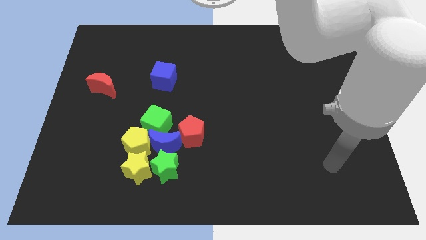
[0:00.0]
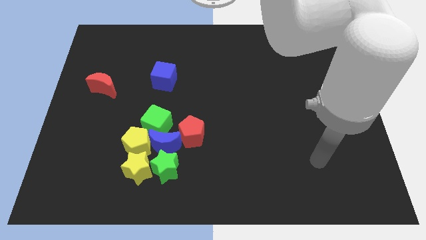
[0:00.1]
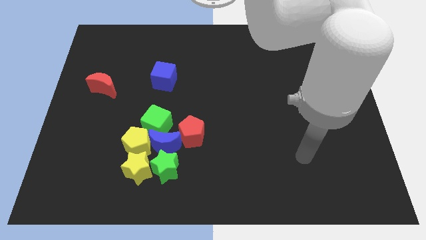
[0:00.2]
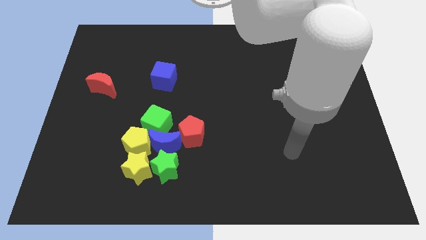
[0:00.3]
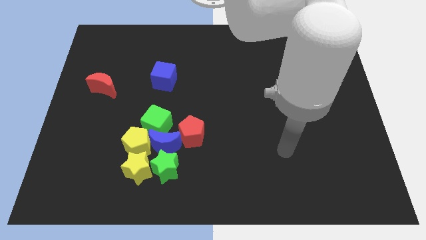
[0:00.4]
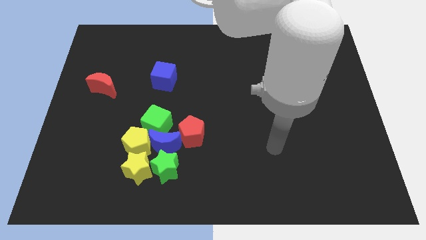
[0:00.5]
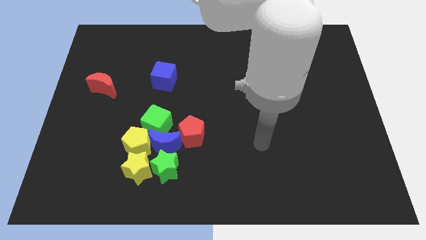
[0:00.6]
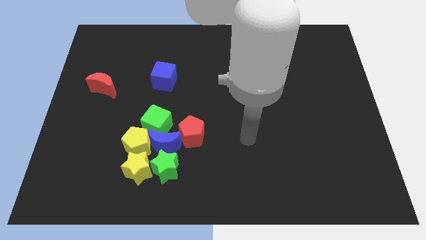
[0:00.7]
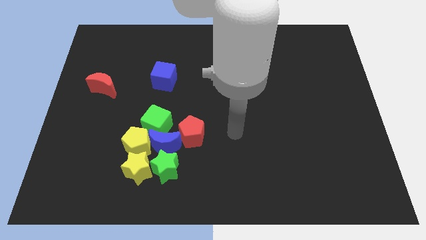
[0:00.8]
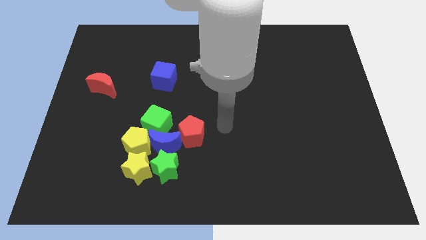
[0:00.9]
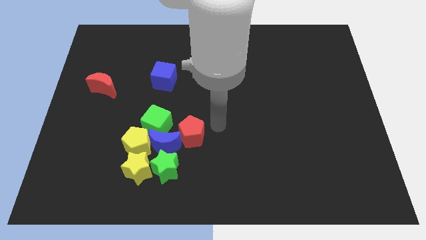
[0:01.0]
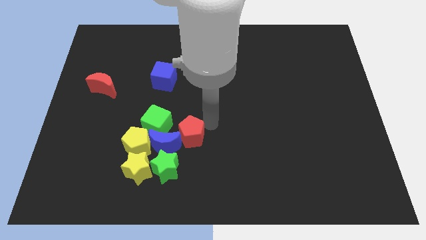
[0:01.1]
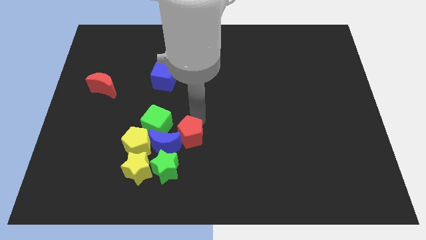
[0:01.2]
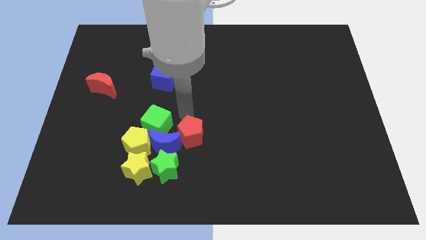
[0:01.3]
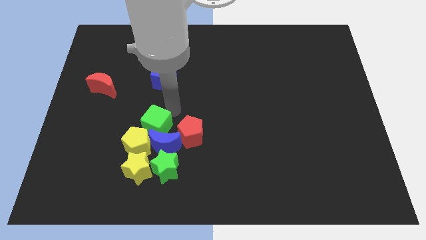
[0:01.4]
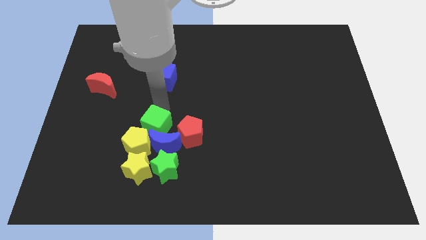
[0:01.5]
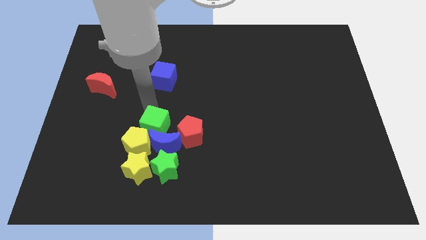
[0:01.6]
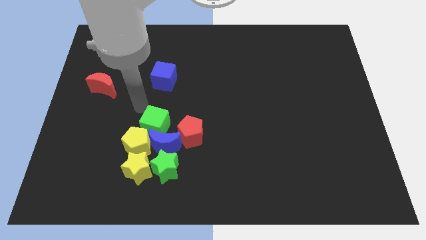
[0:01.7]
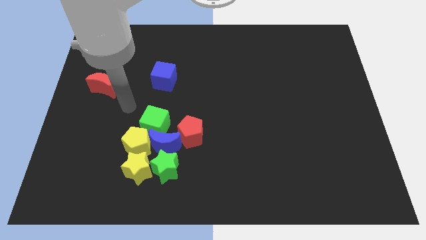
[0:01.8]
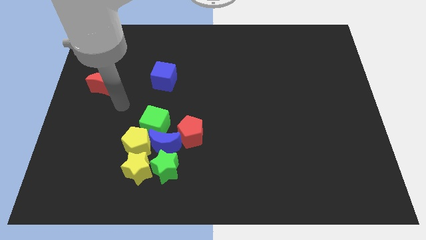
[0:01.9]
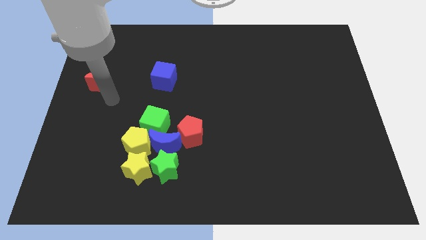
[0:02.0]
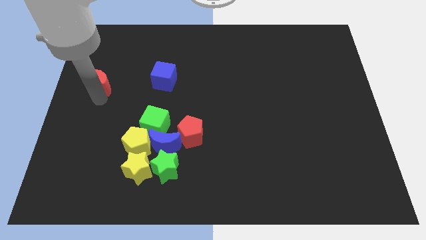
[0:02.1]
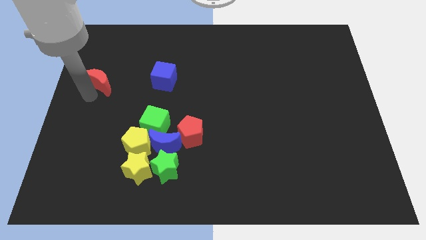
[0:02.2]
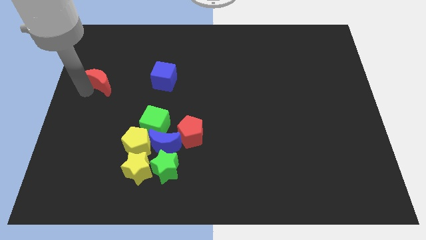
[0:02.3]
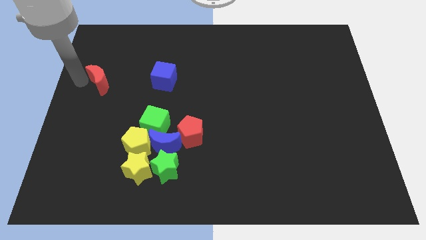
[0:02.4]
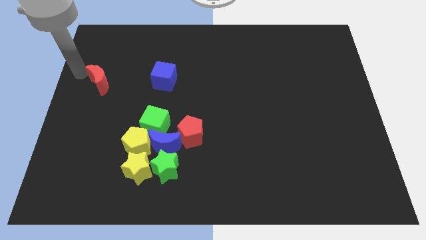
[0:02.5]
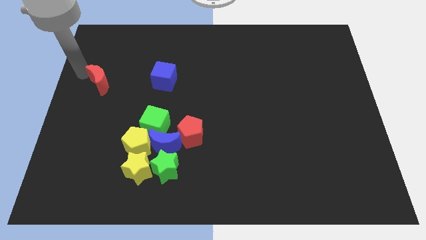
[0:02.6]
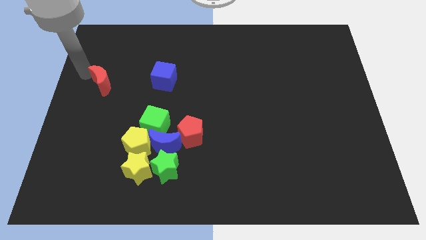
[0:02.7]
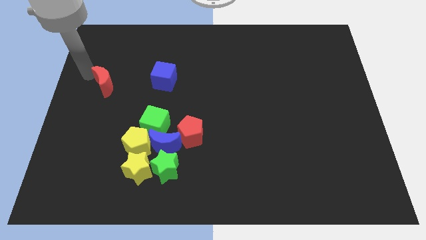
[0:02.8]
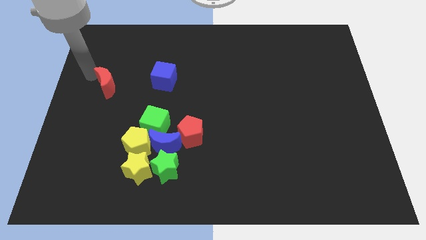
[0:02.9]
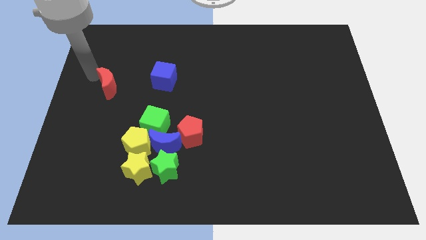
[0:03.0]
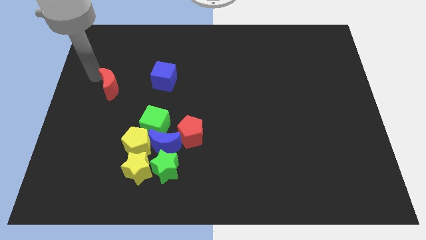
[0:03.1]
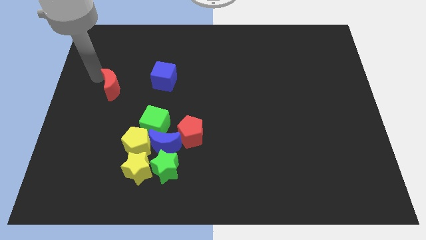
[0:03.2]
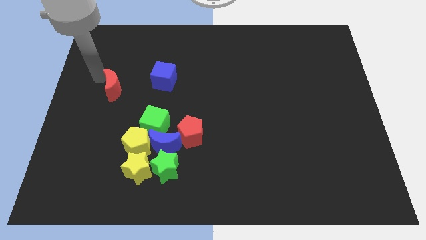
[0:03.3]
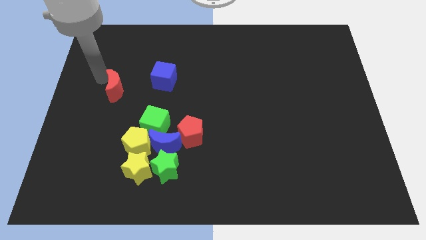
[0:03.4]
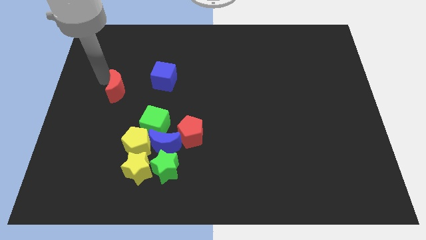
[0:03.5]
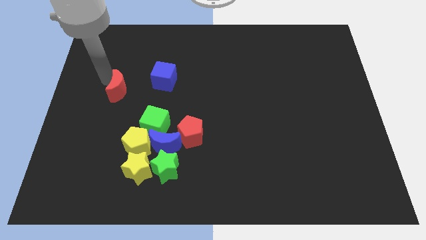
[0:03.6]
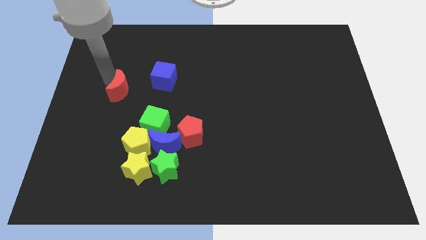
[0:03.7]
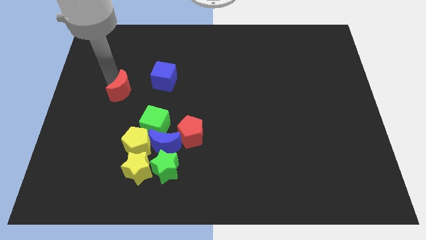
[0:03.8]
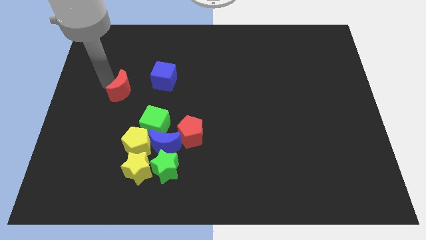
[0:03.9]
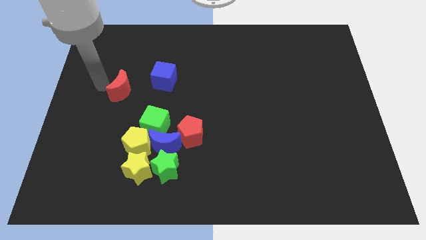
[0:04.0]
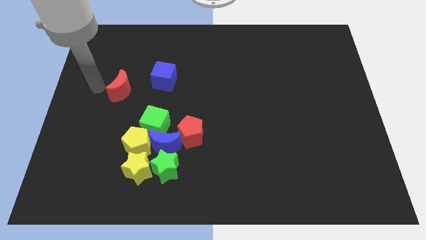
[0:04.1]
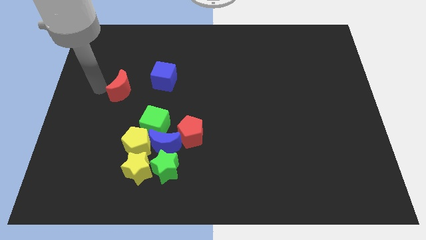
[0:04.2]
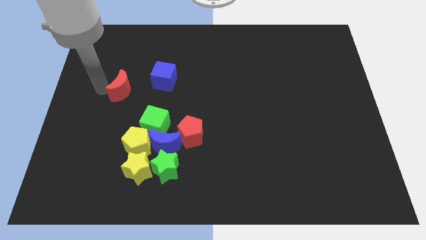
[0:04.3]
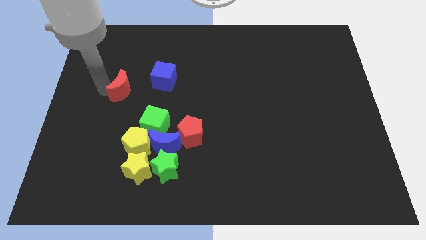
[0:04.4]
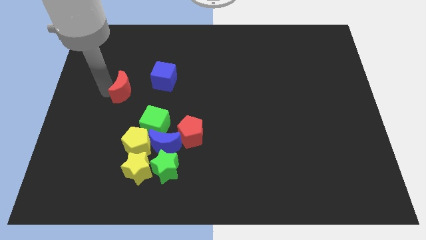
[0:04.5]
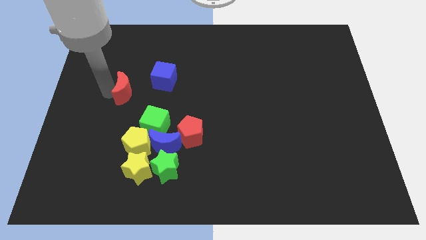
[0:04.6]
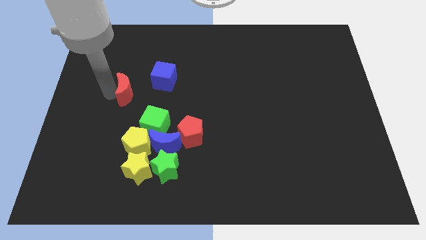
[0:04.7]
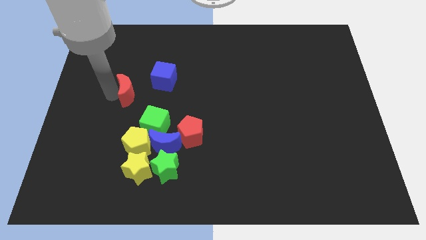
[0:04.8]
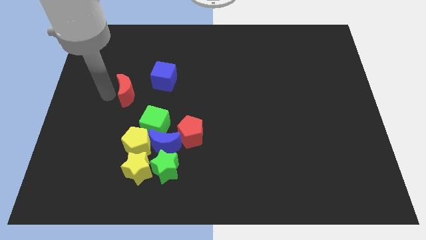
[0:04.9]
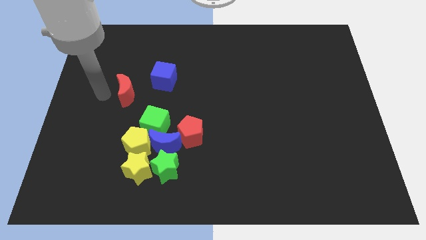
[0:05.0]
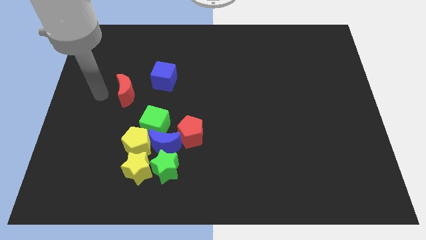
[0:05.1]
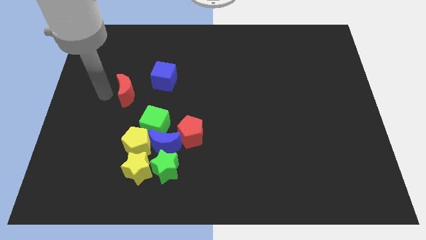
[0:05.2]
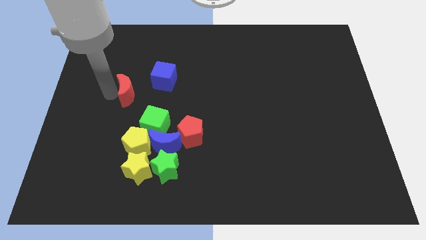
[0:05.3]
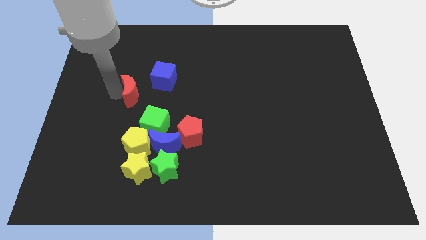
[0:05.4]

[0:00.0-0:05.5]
push the red moon a little bit right

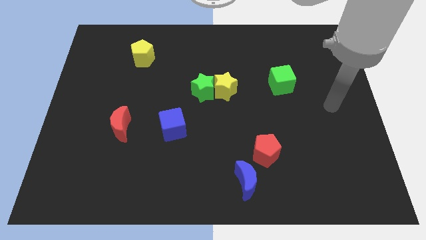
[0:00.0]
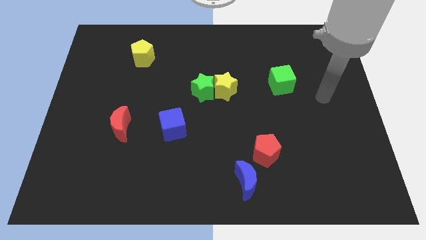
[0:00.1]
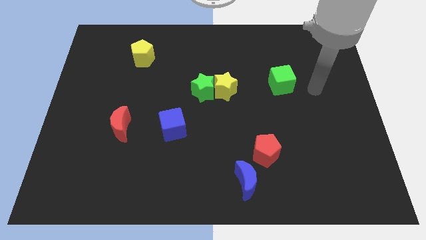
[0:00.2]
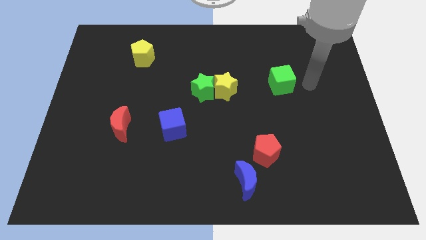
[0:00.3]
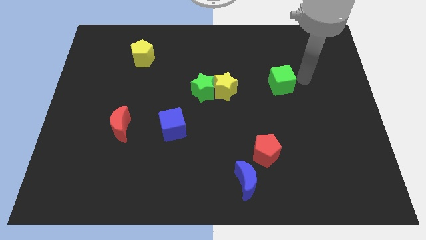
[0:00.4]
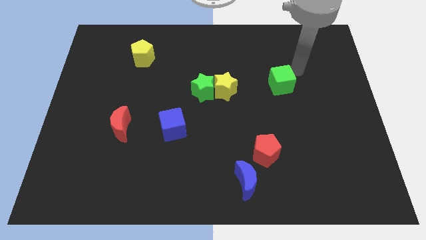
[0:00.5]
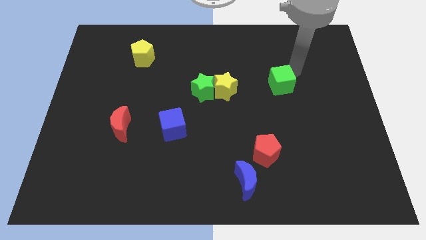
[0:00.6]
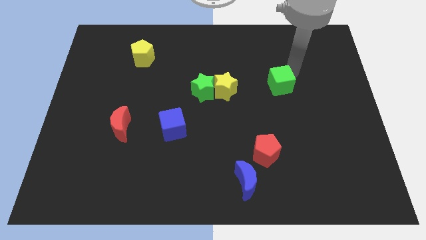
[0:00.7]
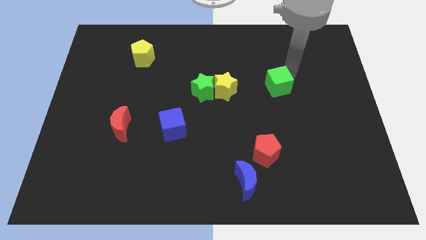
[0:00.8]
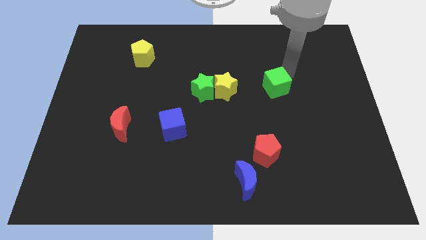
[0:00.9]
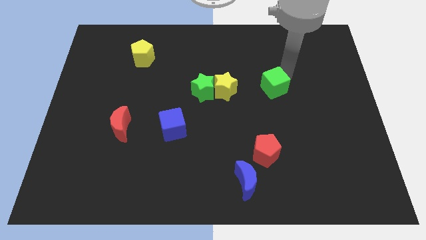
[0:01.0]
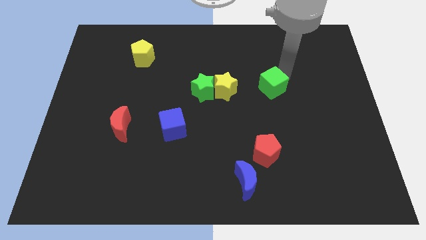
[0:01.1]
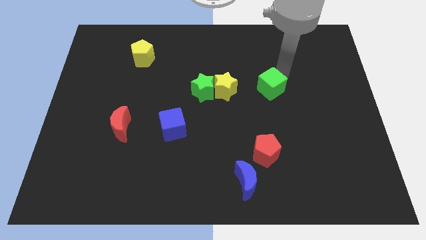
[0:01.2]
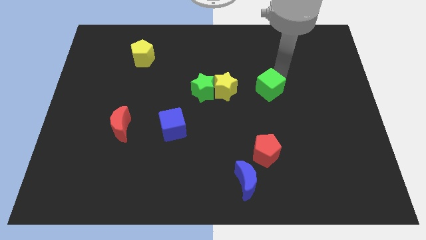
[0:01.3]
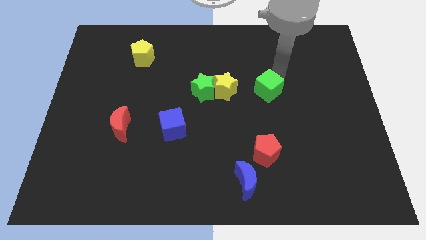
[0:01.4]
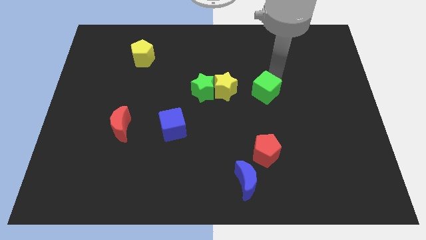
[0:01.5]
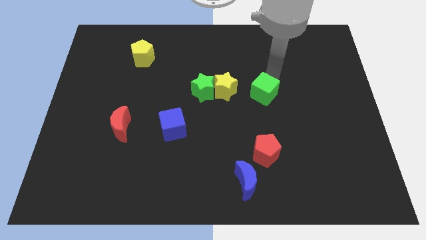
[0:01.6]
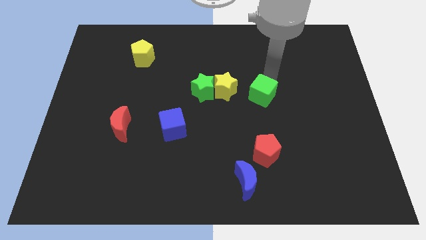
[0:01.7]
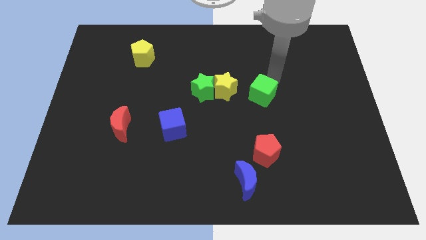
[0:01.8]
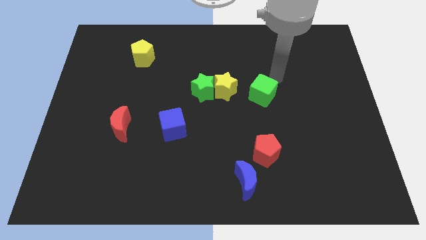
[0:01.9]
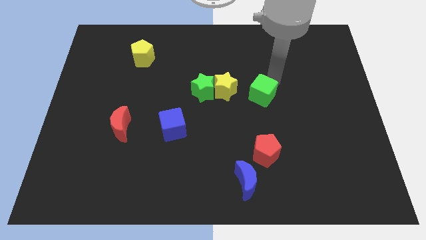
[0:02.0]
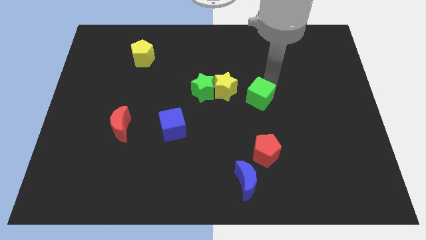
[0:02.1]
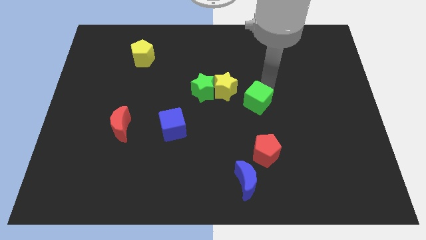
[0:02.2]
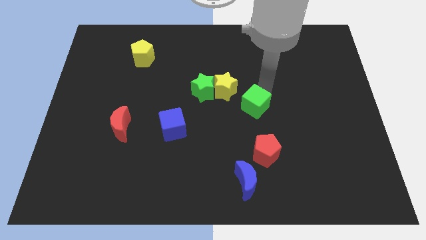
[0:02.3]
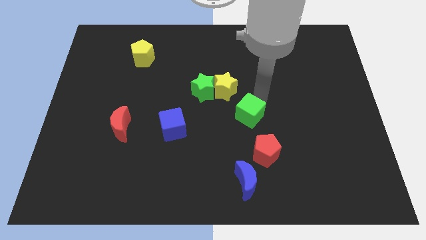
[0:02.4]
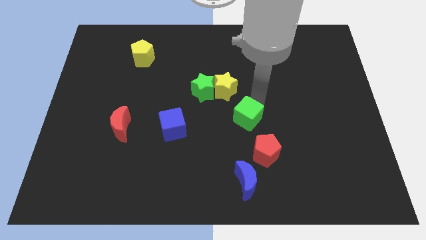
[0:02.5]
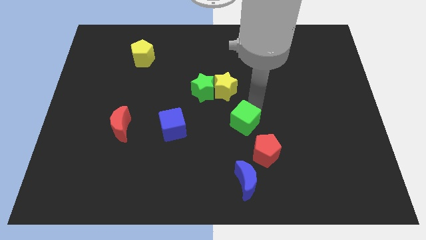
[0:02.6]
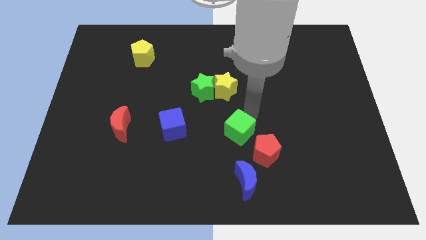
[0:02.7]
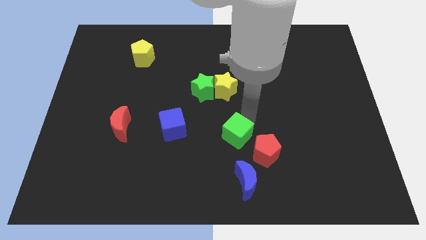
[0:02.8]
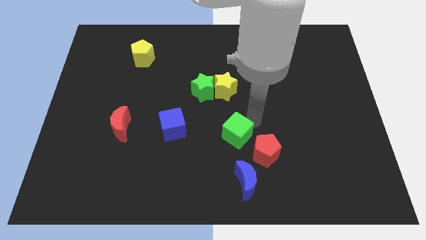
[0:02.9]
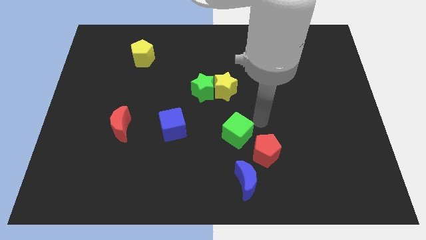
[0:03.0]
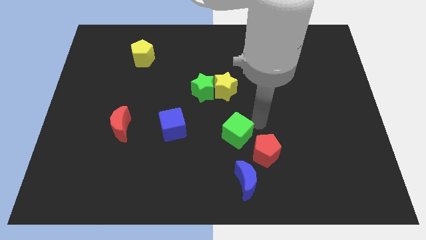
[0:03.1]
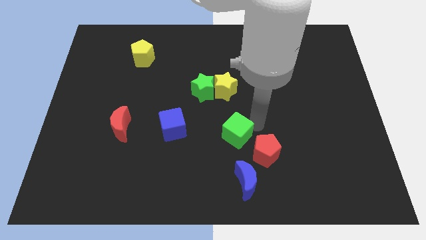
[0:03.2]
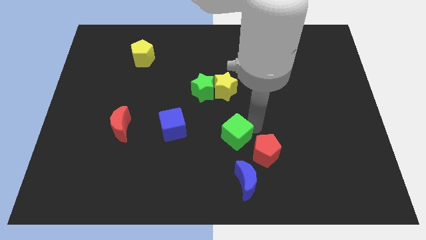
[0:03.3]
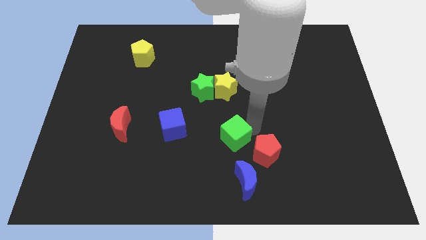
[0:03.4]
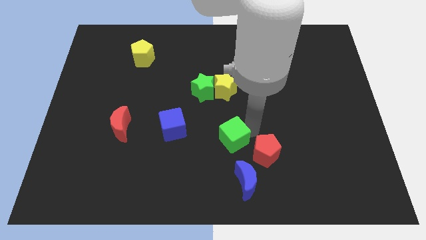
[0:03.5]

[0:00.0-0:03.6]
move the green cube diagonally down and to the left
